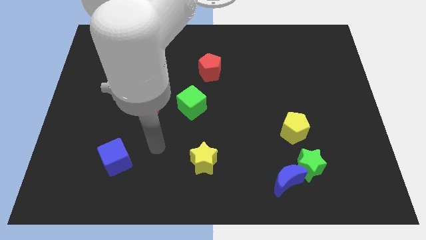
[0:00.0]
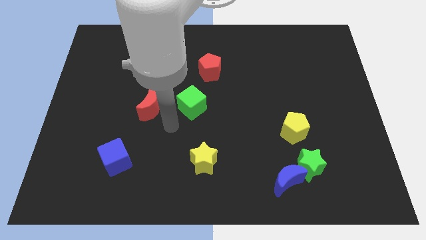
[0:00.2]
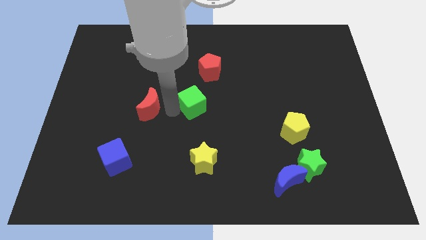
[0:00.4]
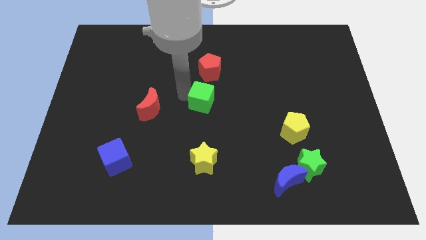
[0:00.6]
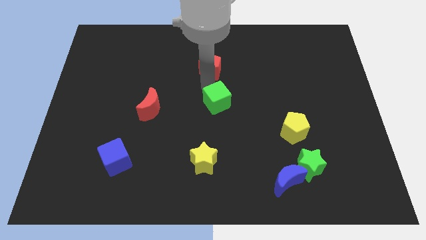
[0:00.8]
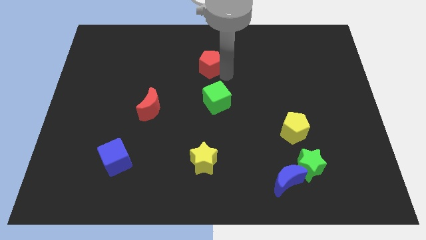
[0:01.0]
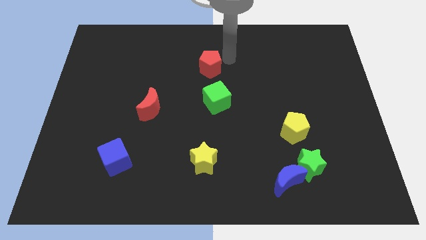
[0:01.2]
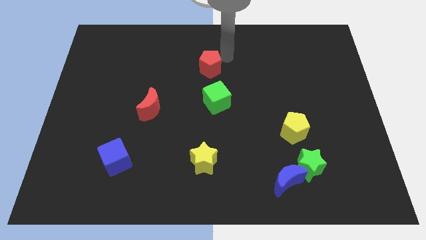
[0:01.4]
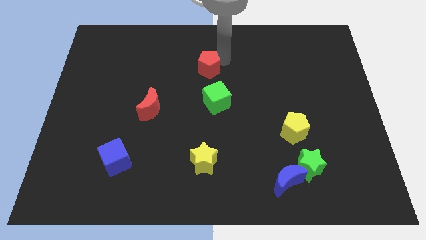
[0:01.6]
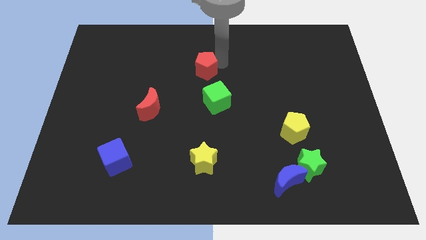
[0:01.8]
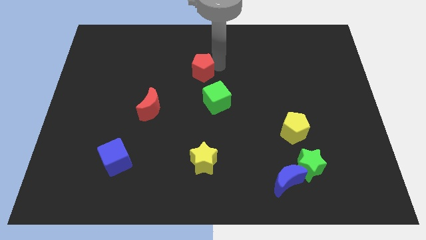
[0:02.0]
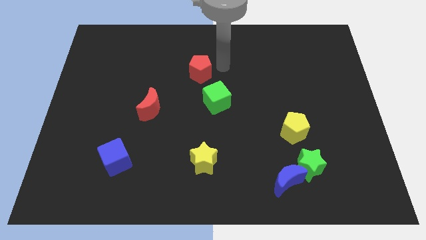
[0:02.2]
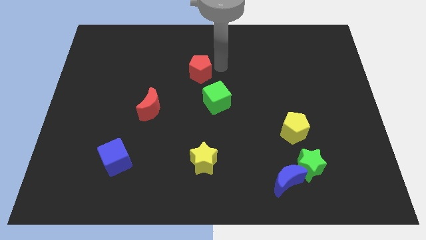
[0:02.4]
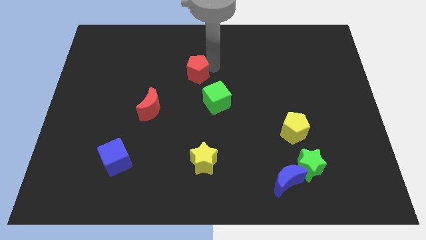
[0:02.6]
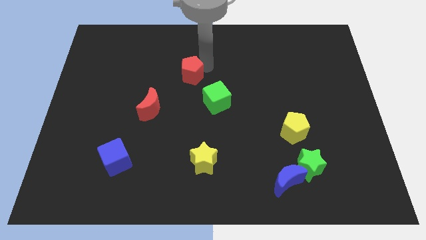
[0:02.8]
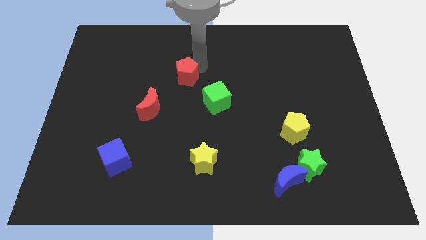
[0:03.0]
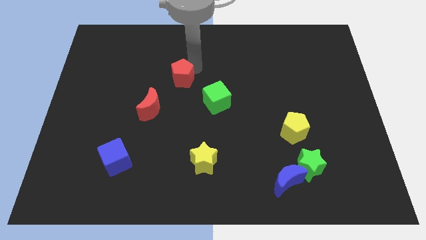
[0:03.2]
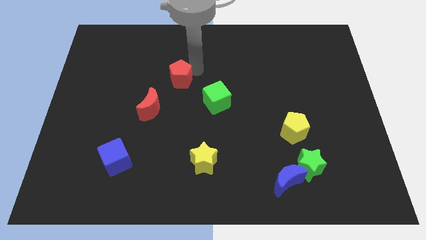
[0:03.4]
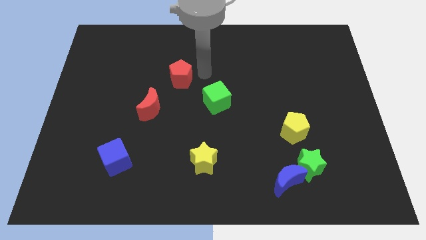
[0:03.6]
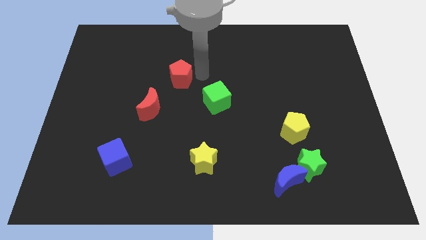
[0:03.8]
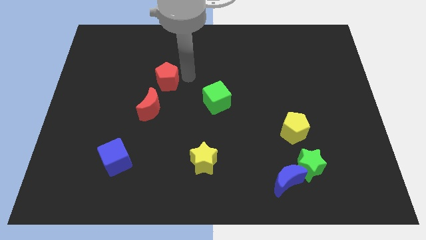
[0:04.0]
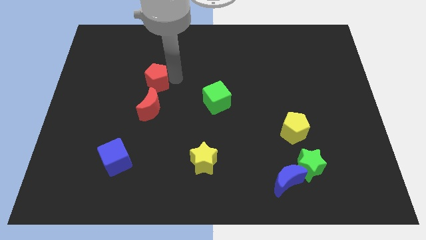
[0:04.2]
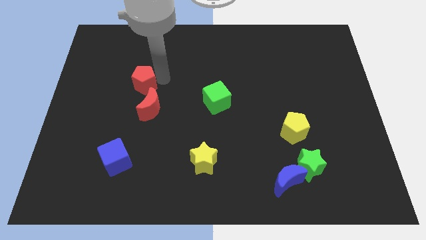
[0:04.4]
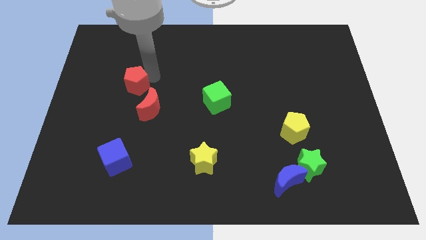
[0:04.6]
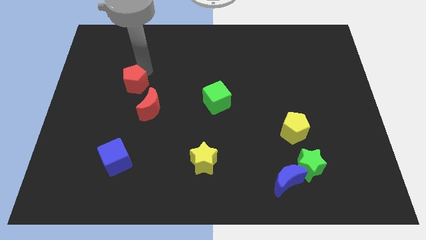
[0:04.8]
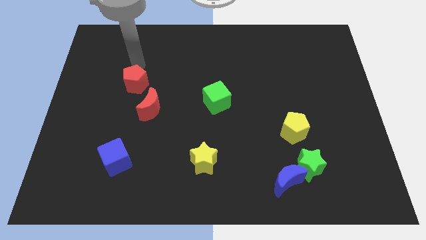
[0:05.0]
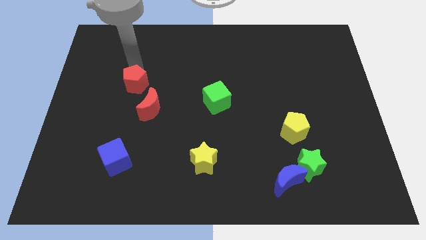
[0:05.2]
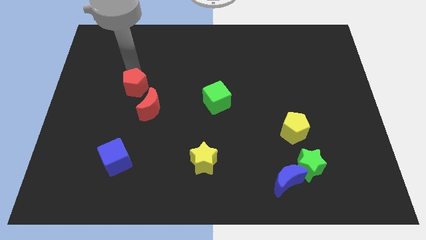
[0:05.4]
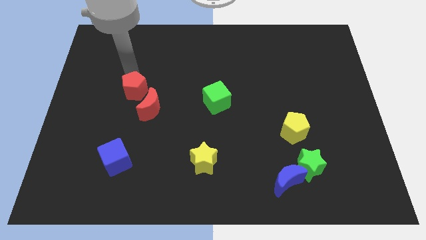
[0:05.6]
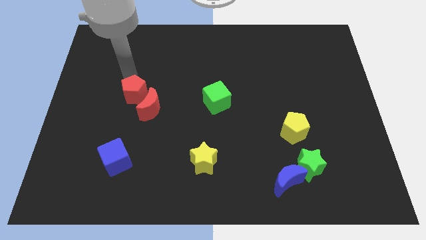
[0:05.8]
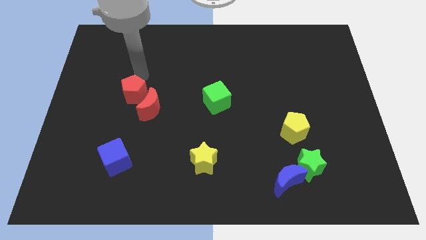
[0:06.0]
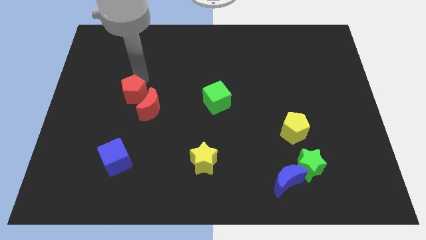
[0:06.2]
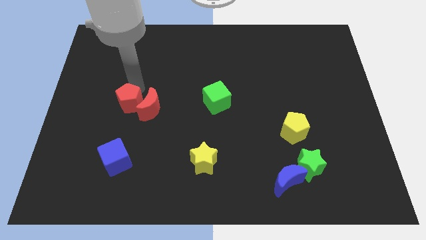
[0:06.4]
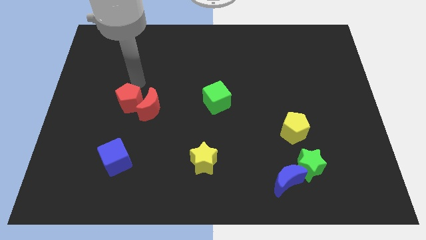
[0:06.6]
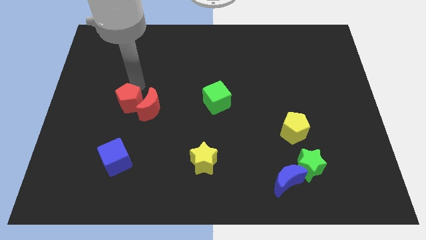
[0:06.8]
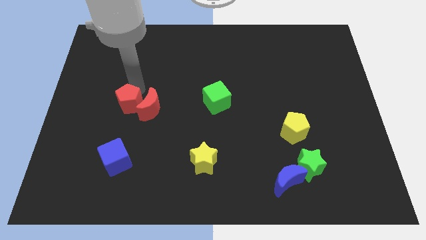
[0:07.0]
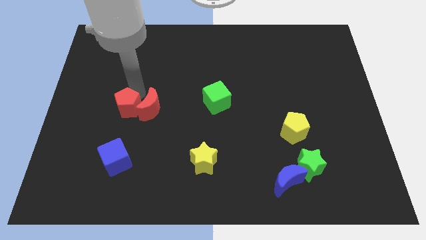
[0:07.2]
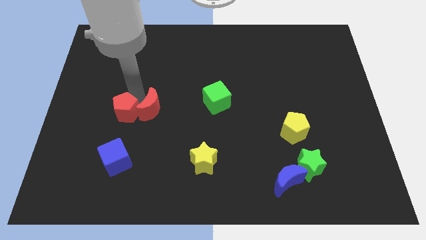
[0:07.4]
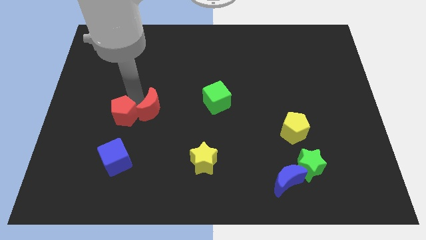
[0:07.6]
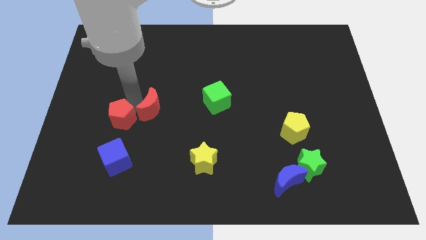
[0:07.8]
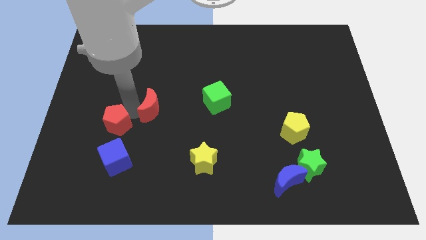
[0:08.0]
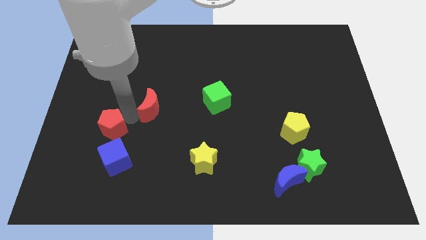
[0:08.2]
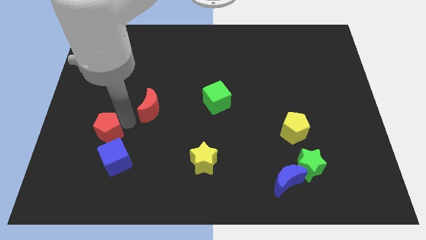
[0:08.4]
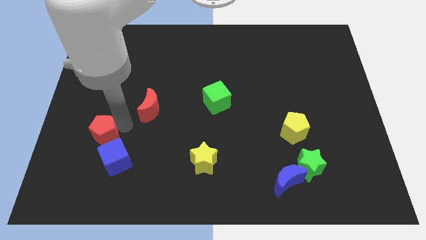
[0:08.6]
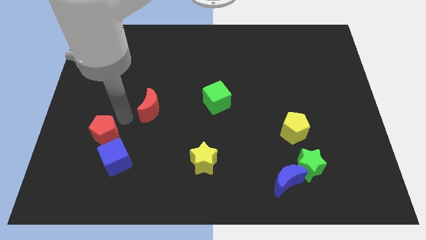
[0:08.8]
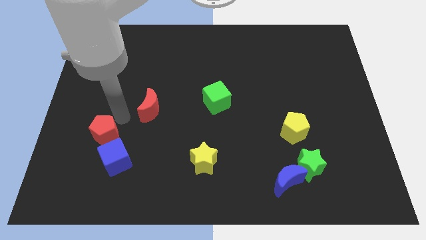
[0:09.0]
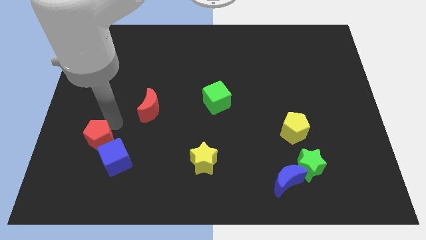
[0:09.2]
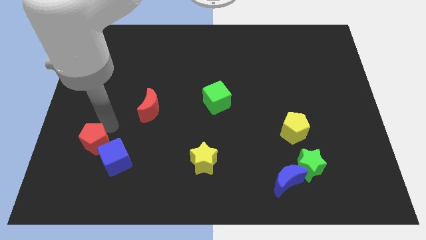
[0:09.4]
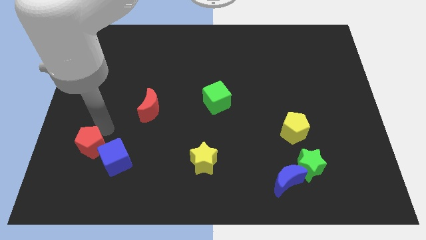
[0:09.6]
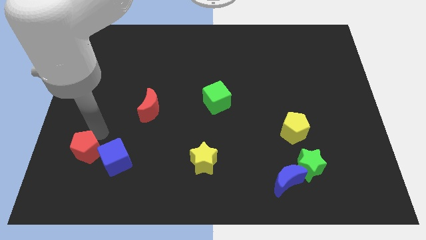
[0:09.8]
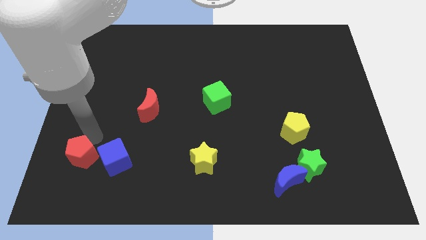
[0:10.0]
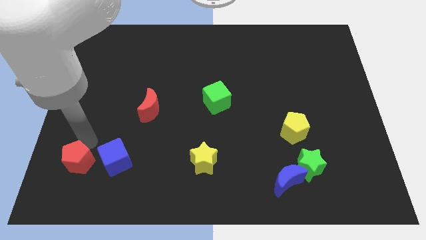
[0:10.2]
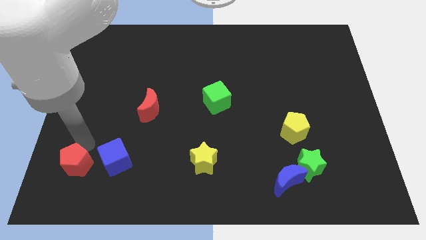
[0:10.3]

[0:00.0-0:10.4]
move the red pentagon diagonally down and to the left of the blue cube

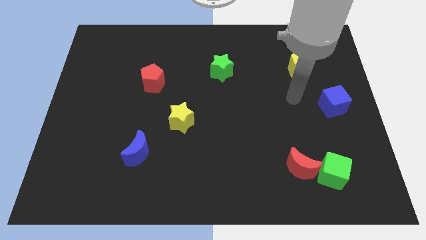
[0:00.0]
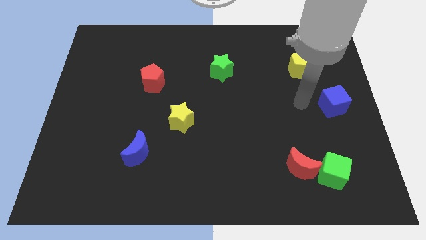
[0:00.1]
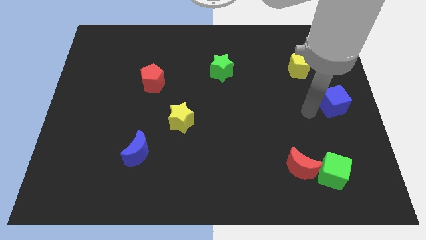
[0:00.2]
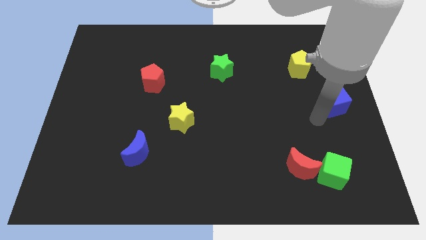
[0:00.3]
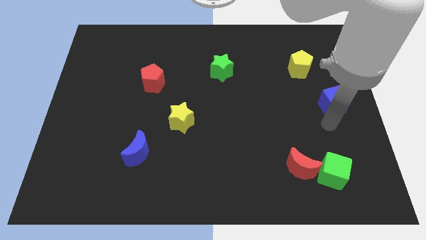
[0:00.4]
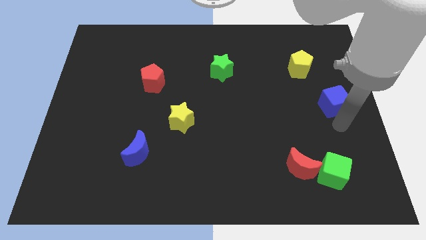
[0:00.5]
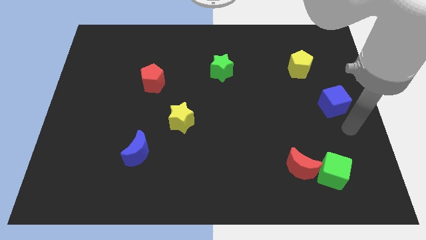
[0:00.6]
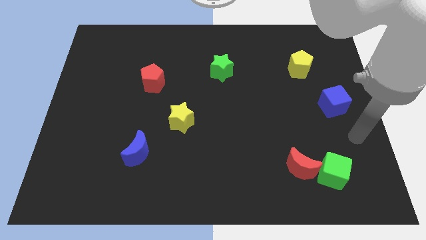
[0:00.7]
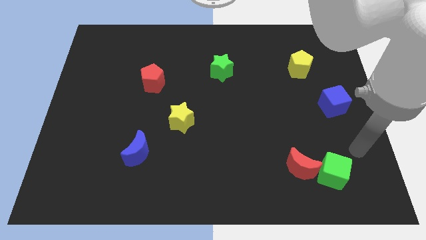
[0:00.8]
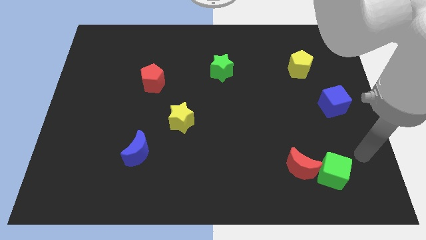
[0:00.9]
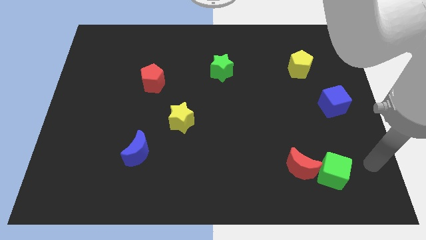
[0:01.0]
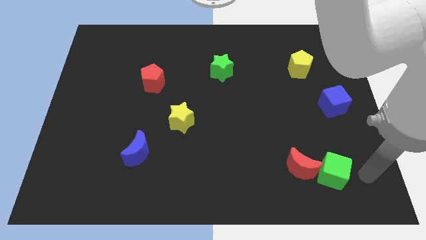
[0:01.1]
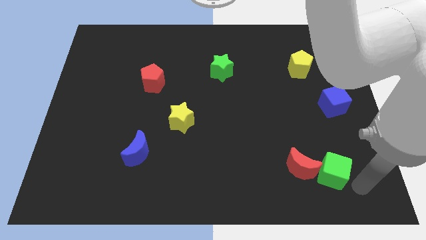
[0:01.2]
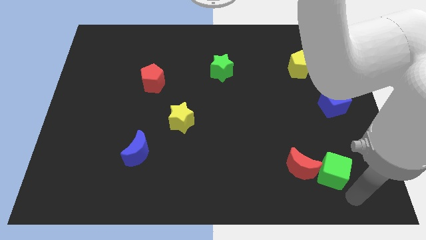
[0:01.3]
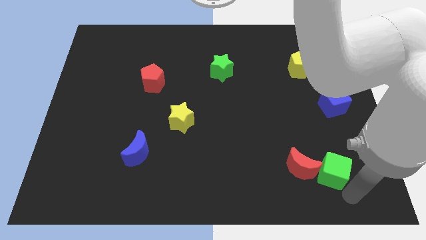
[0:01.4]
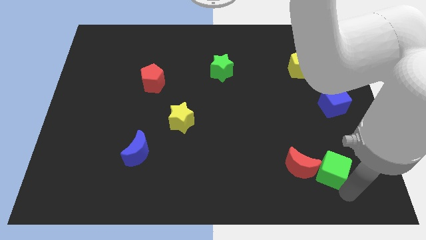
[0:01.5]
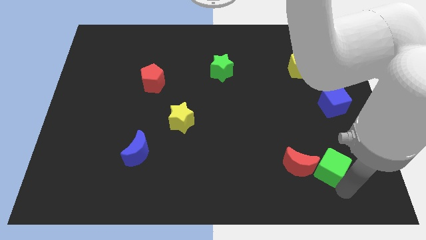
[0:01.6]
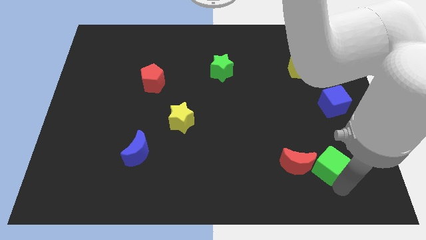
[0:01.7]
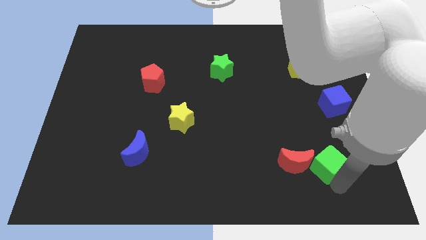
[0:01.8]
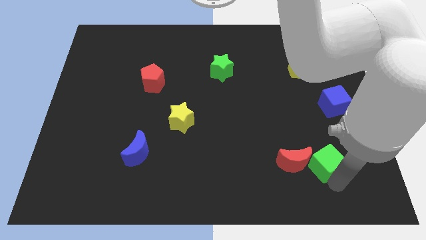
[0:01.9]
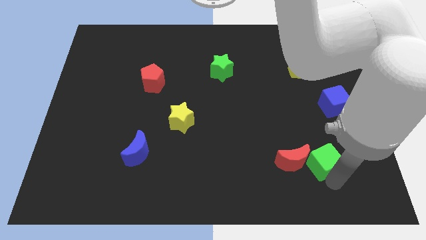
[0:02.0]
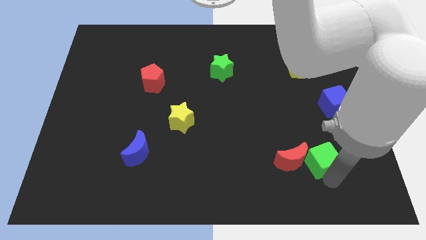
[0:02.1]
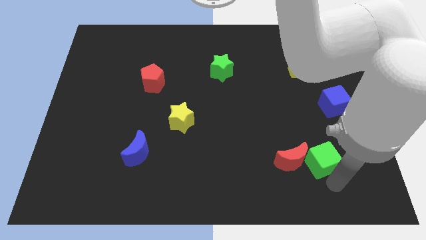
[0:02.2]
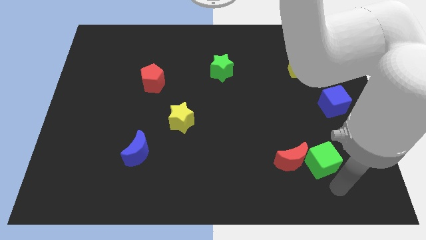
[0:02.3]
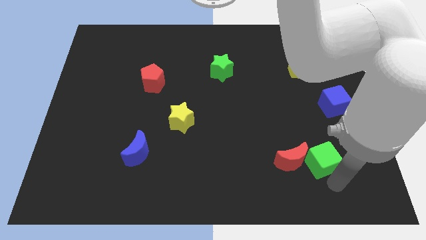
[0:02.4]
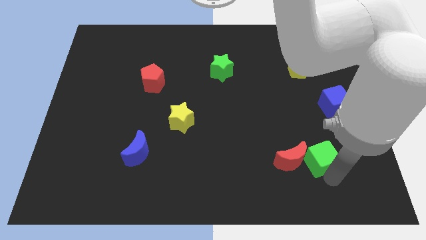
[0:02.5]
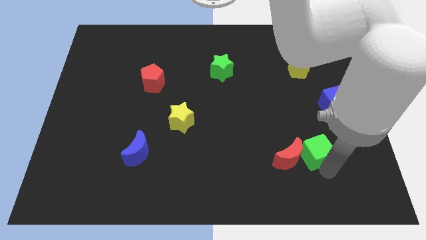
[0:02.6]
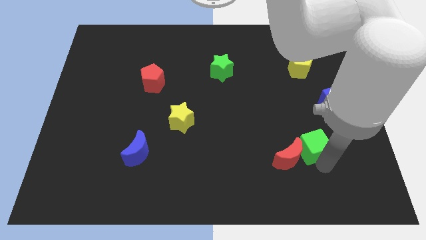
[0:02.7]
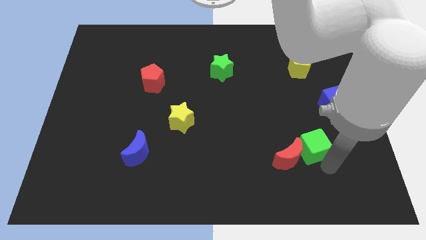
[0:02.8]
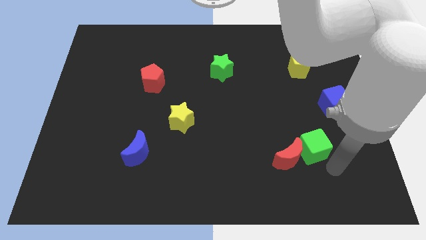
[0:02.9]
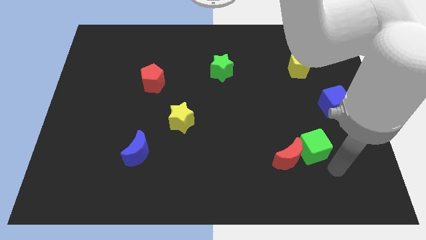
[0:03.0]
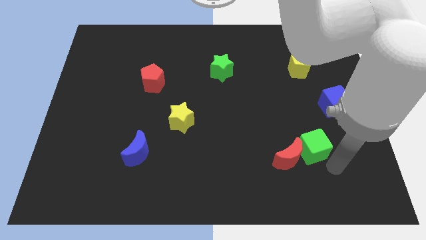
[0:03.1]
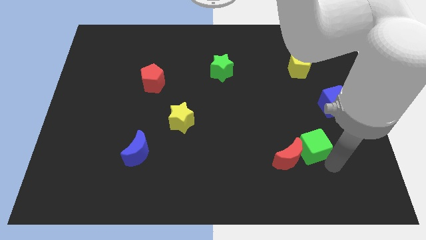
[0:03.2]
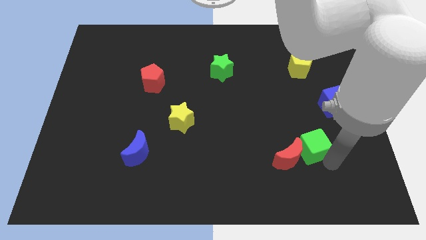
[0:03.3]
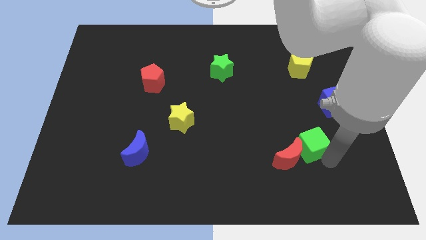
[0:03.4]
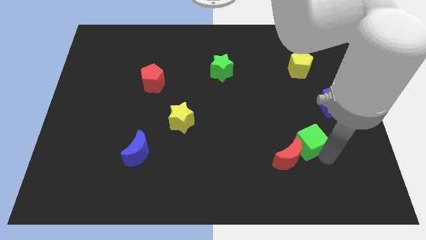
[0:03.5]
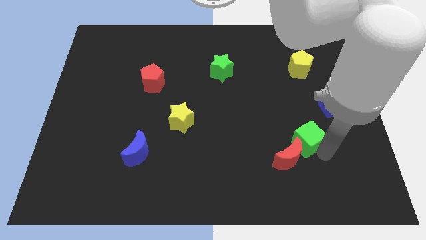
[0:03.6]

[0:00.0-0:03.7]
slide the green cube above the red moon
